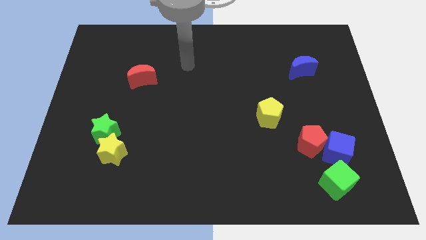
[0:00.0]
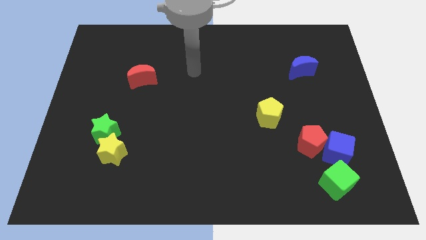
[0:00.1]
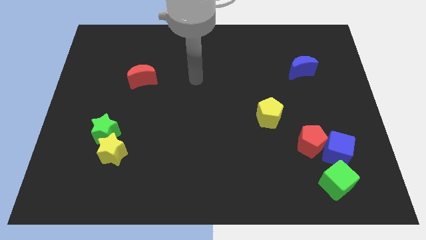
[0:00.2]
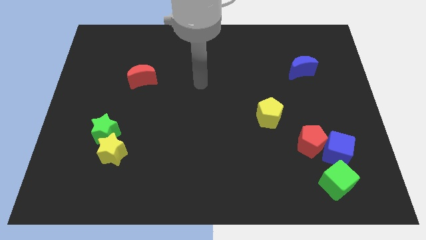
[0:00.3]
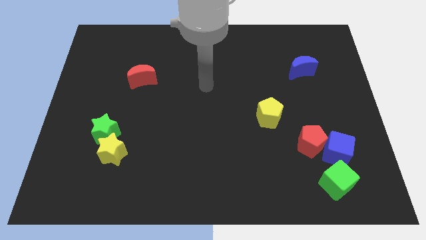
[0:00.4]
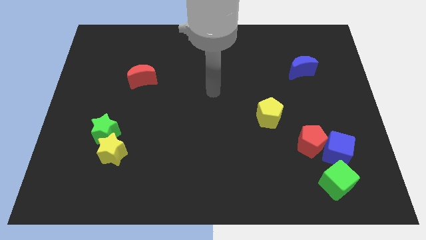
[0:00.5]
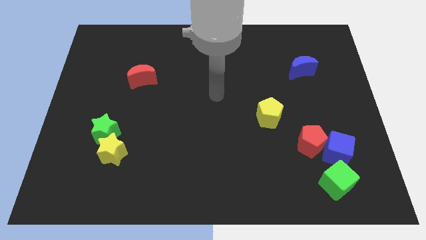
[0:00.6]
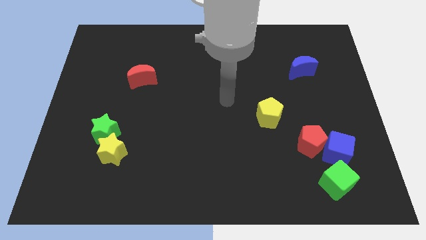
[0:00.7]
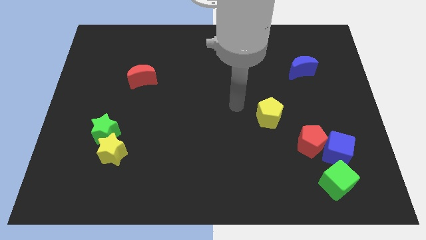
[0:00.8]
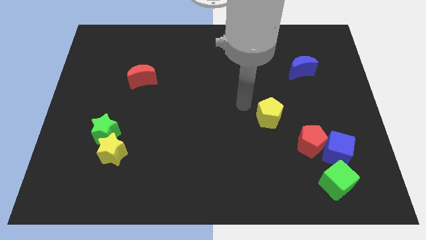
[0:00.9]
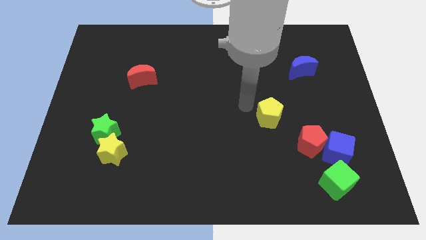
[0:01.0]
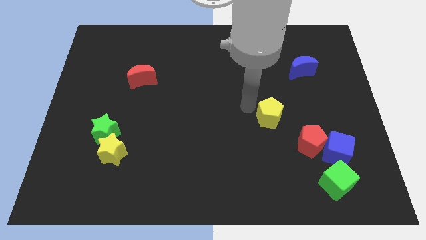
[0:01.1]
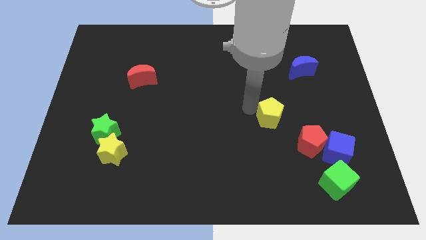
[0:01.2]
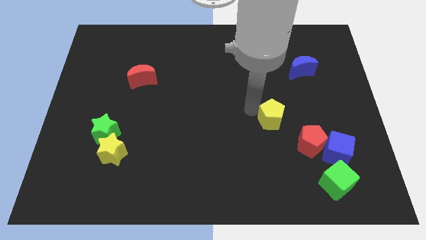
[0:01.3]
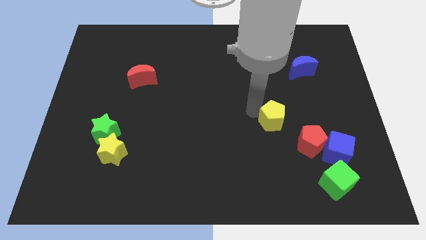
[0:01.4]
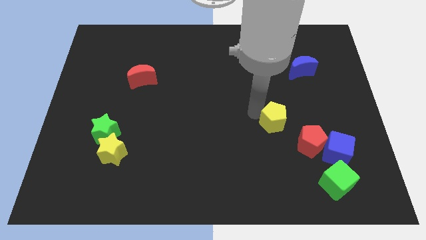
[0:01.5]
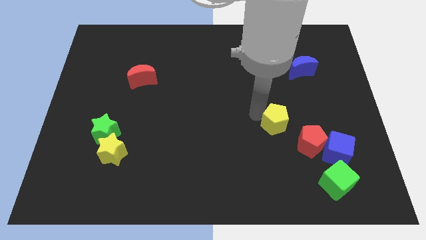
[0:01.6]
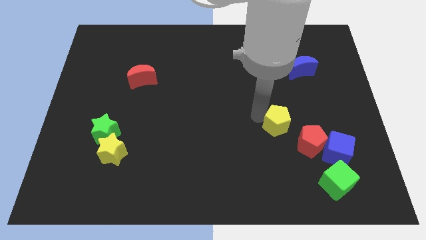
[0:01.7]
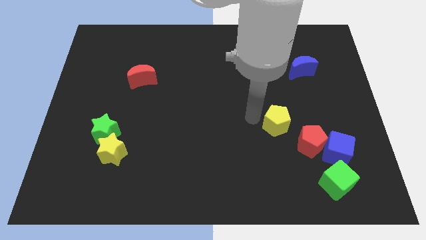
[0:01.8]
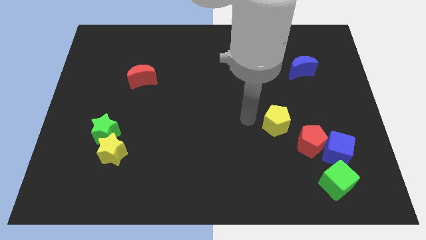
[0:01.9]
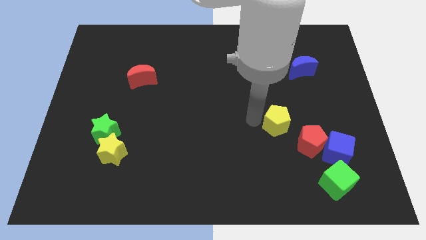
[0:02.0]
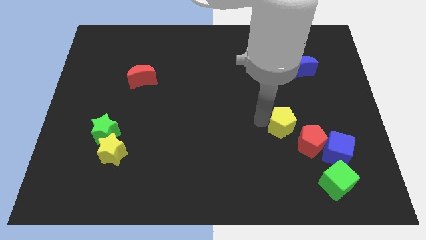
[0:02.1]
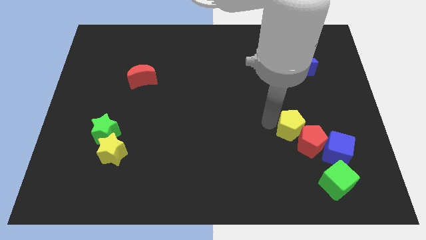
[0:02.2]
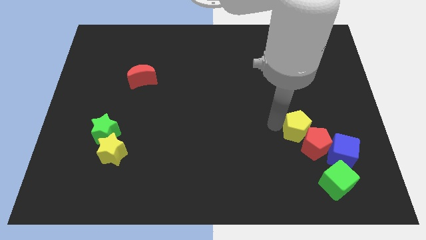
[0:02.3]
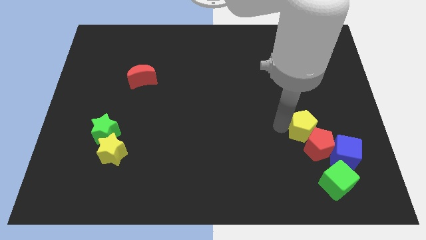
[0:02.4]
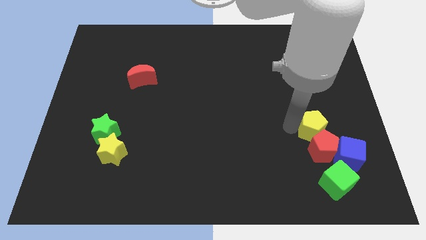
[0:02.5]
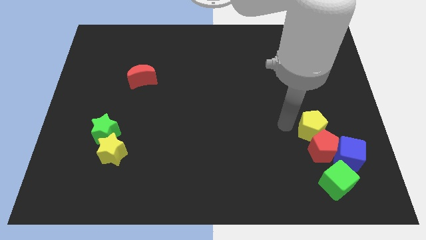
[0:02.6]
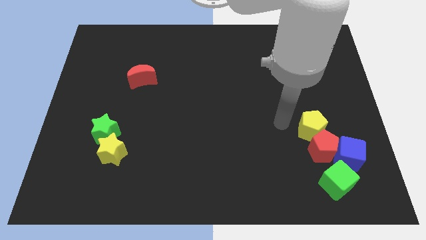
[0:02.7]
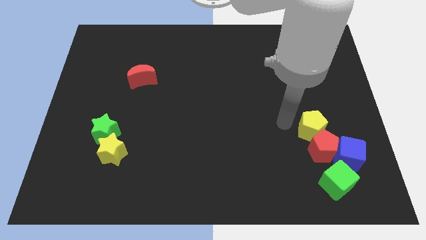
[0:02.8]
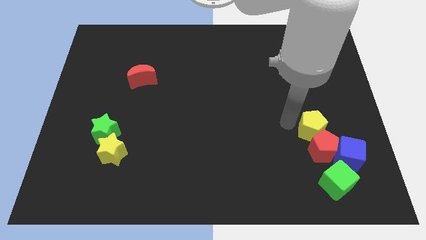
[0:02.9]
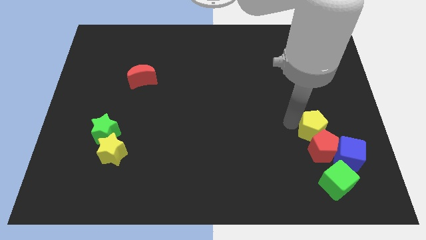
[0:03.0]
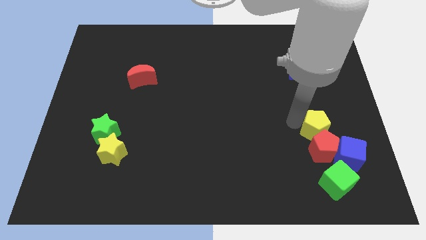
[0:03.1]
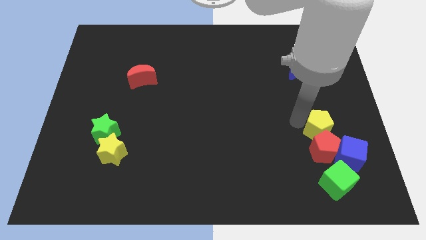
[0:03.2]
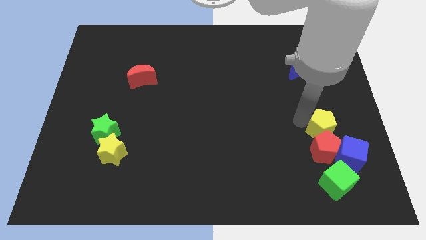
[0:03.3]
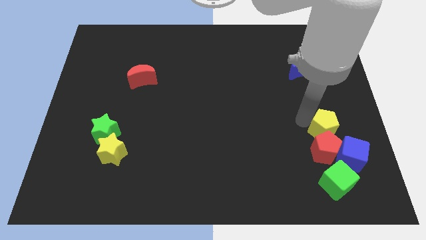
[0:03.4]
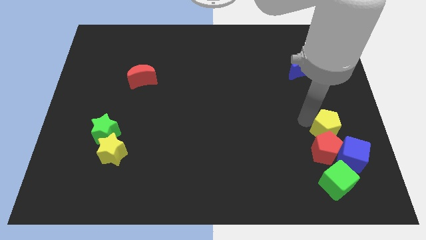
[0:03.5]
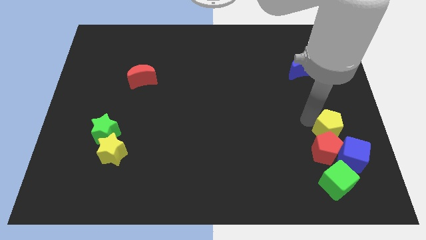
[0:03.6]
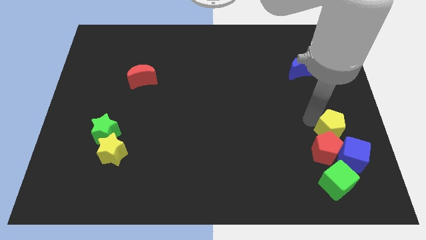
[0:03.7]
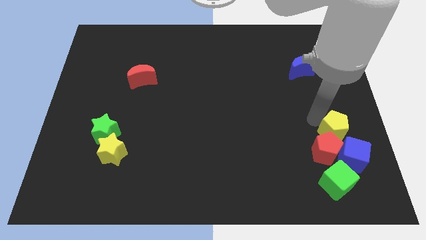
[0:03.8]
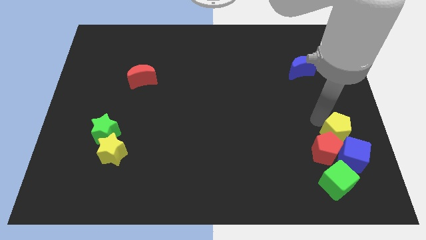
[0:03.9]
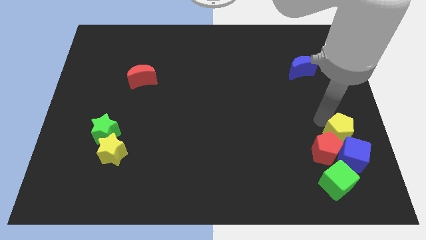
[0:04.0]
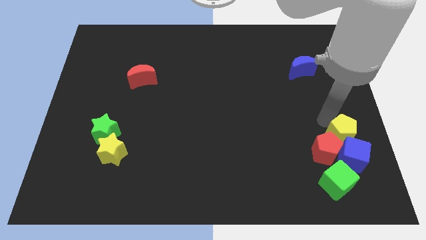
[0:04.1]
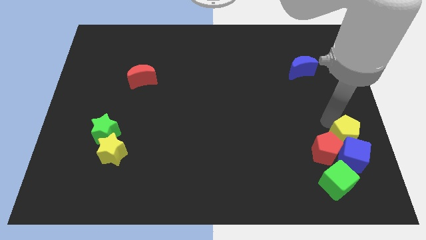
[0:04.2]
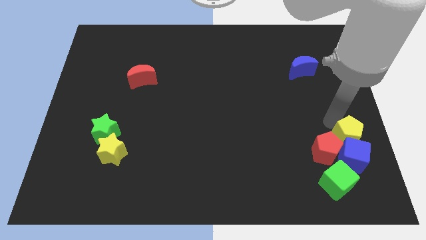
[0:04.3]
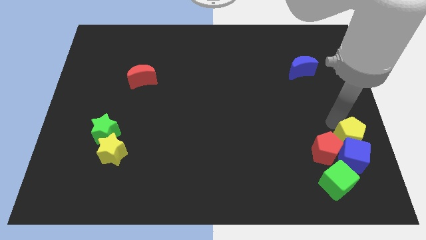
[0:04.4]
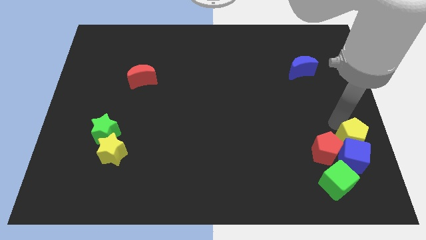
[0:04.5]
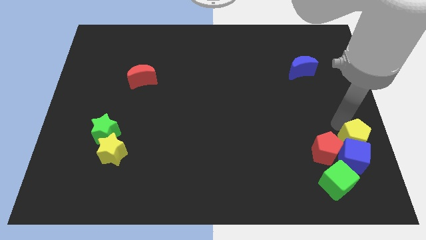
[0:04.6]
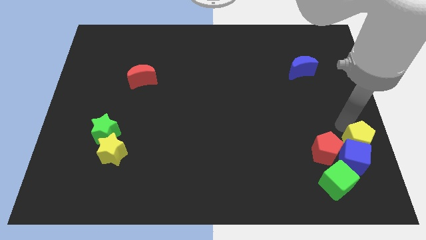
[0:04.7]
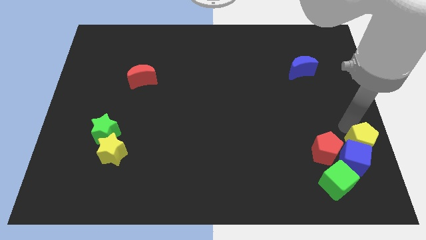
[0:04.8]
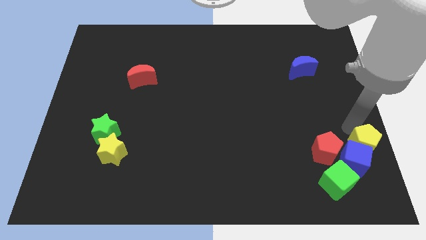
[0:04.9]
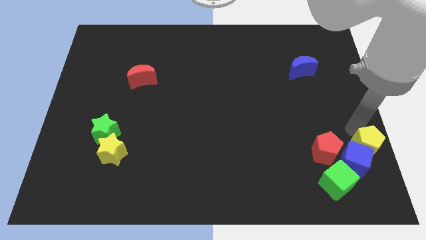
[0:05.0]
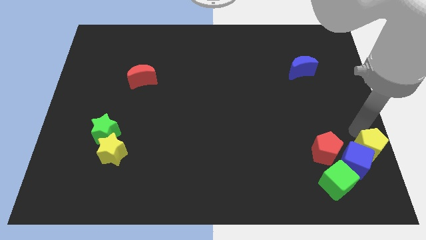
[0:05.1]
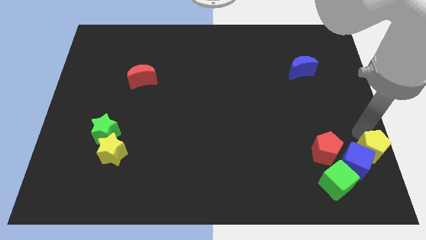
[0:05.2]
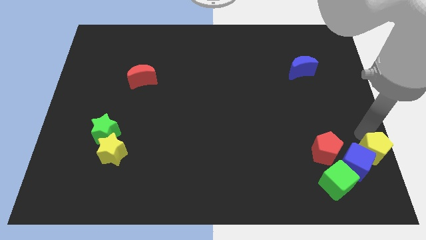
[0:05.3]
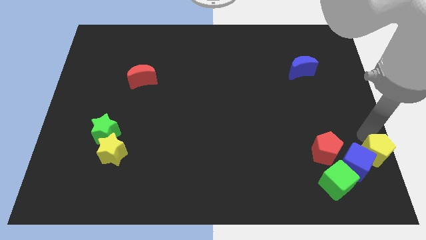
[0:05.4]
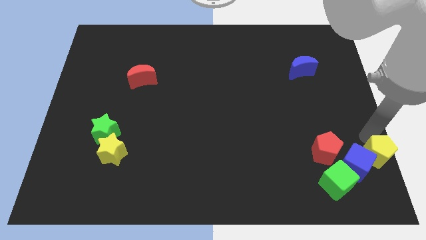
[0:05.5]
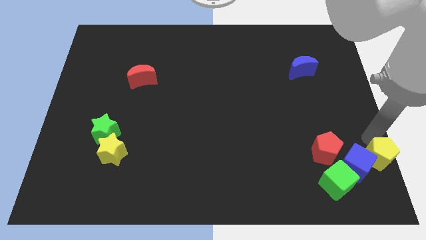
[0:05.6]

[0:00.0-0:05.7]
put the yellow pentagon to the bottom right of the board
